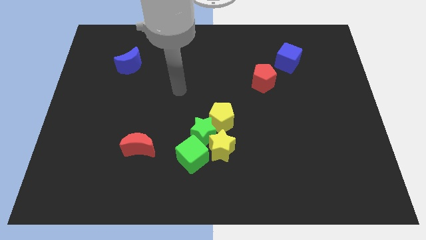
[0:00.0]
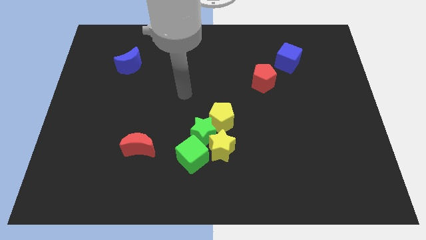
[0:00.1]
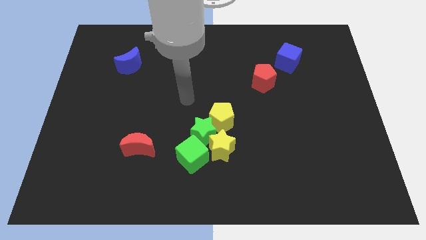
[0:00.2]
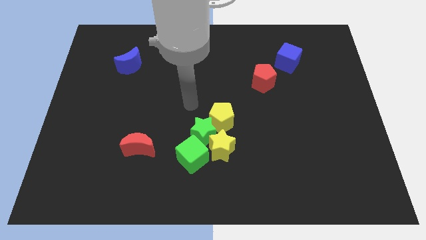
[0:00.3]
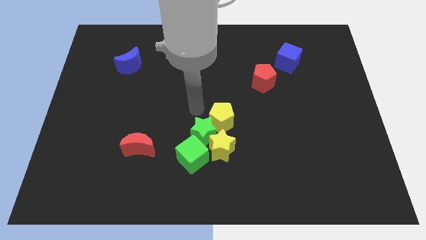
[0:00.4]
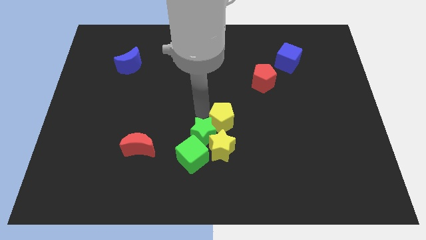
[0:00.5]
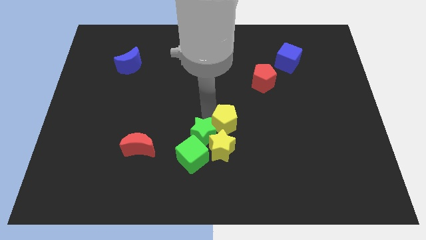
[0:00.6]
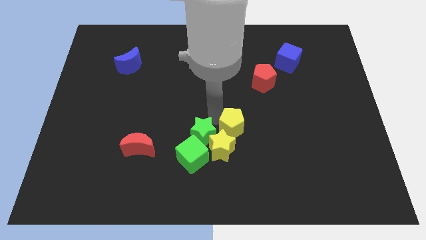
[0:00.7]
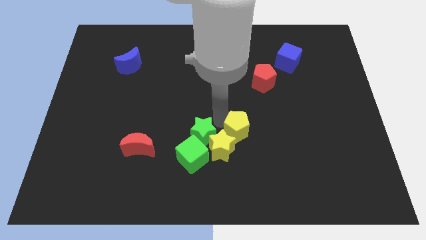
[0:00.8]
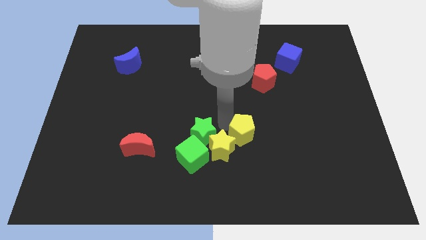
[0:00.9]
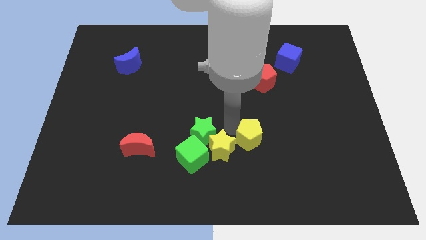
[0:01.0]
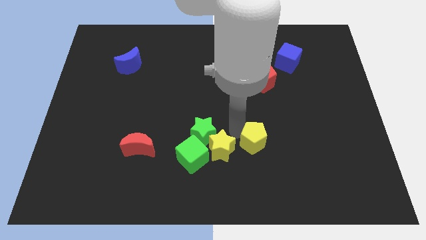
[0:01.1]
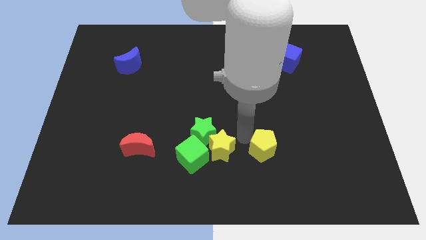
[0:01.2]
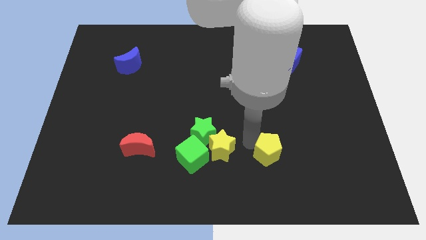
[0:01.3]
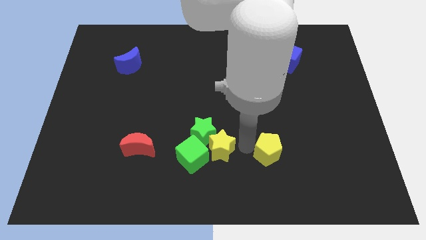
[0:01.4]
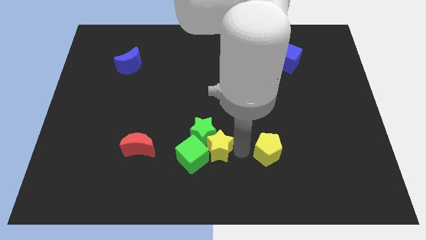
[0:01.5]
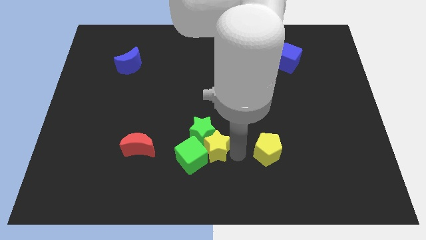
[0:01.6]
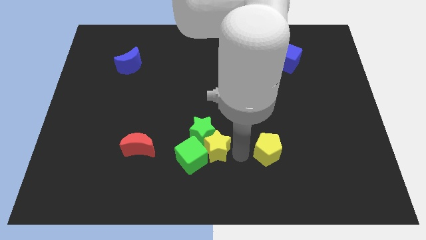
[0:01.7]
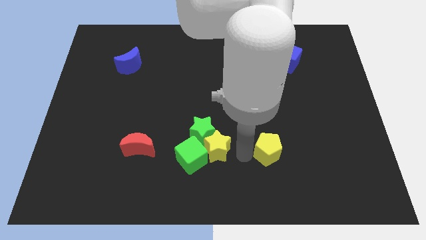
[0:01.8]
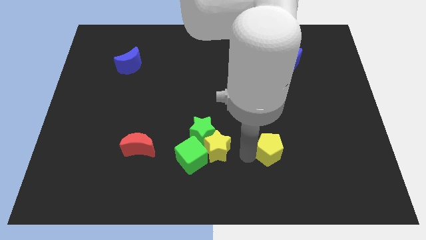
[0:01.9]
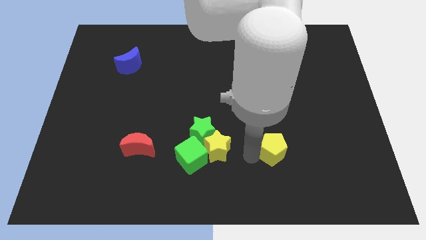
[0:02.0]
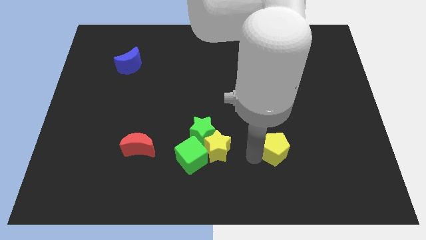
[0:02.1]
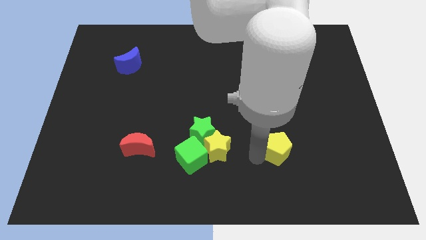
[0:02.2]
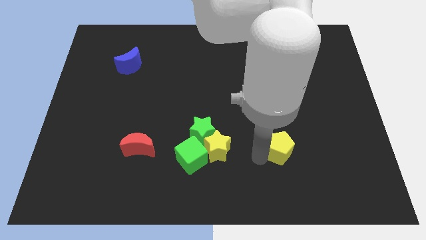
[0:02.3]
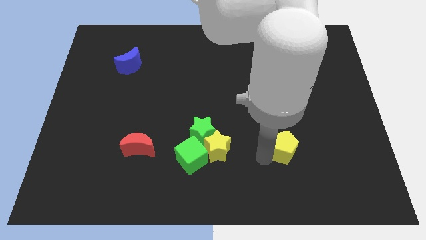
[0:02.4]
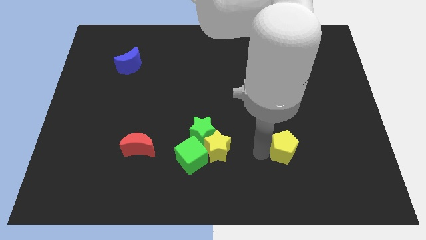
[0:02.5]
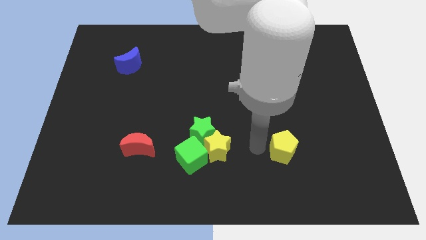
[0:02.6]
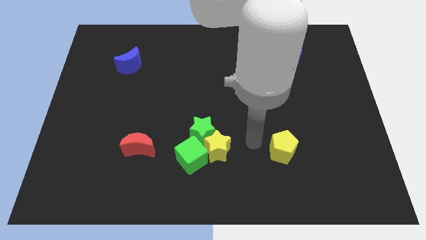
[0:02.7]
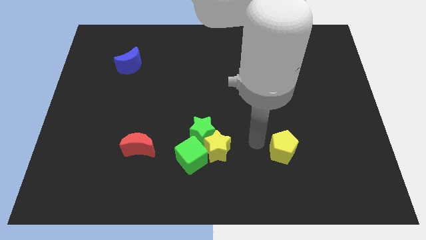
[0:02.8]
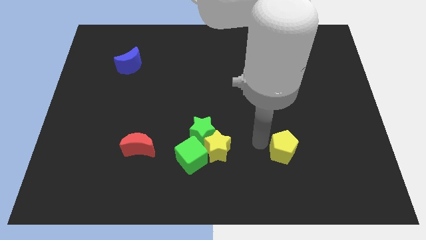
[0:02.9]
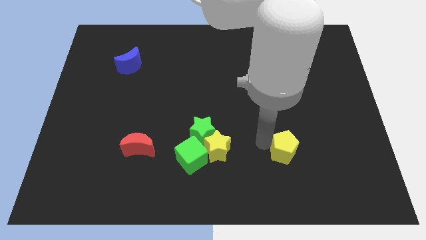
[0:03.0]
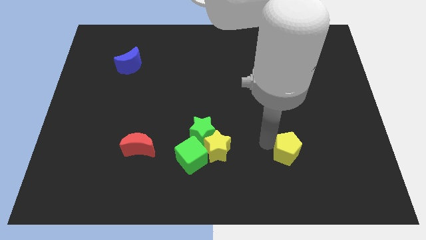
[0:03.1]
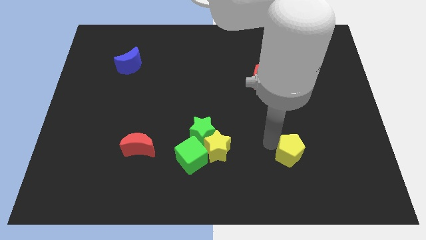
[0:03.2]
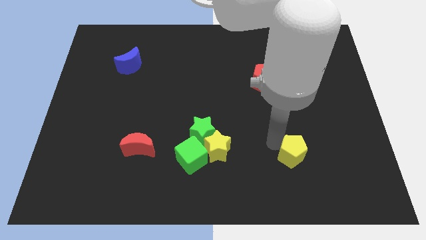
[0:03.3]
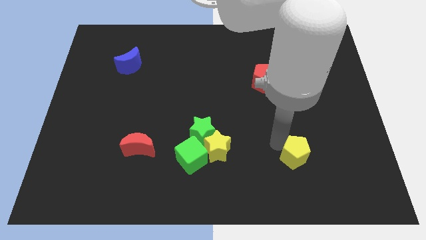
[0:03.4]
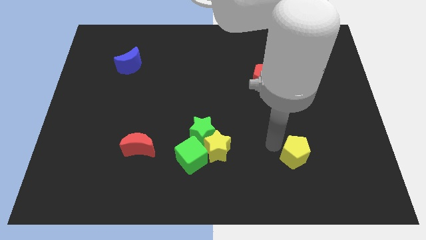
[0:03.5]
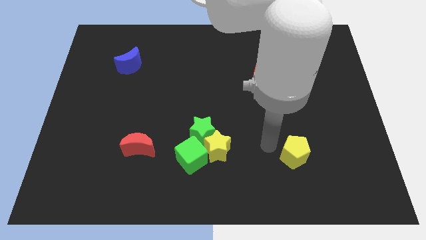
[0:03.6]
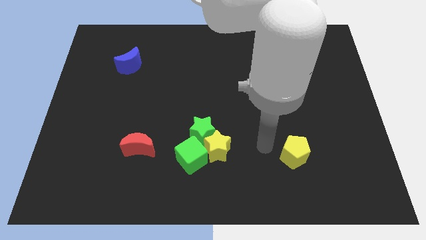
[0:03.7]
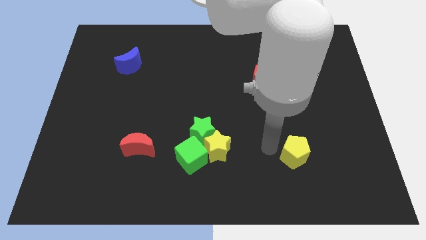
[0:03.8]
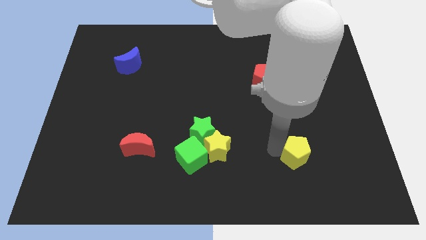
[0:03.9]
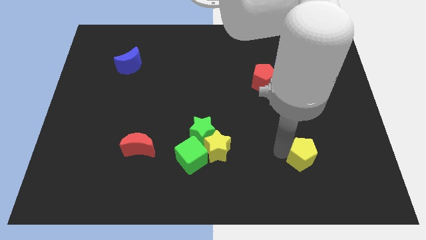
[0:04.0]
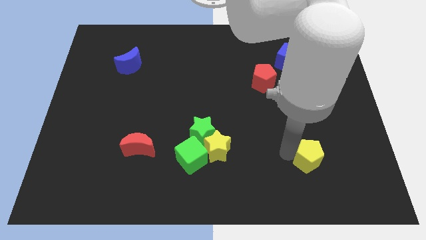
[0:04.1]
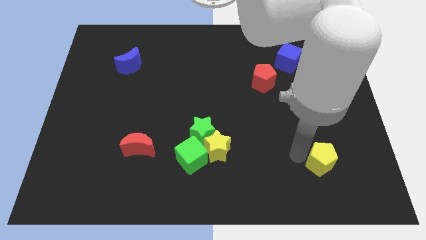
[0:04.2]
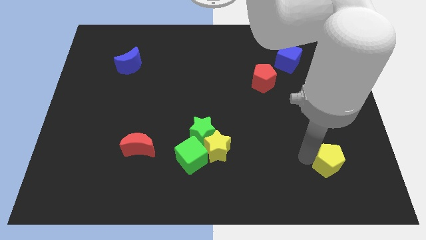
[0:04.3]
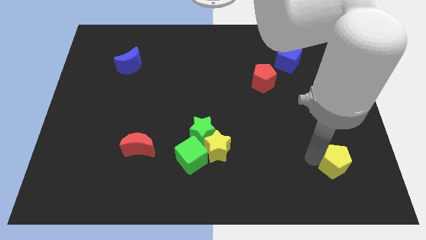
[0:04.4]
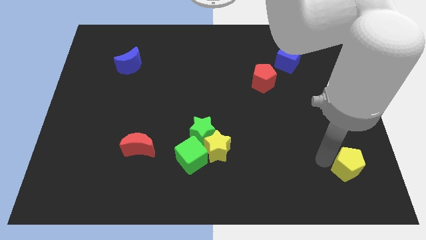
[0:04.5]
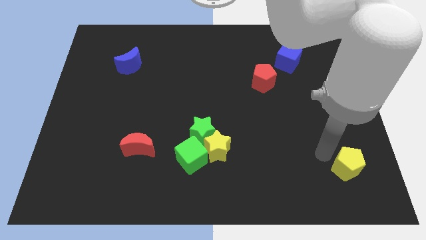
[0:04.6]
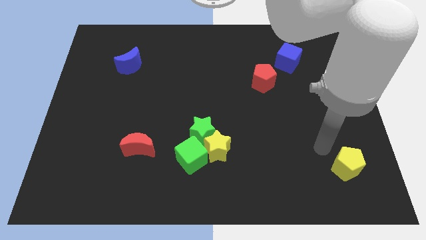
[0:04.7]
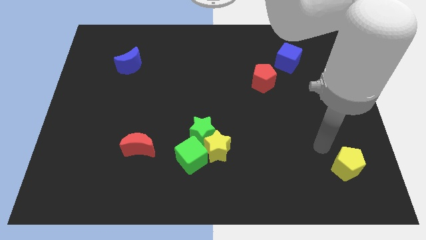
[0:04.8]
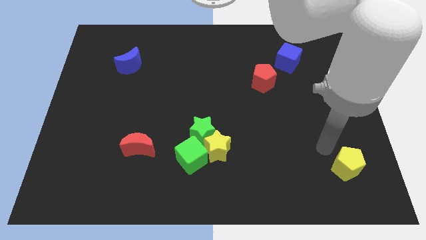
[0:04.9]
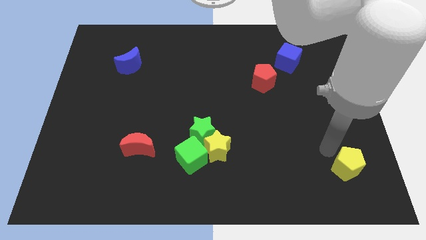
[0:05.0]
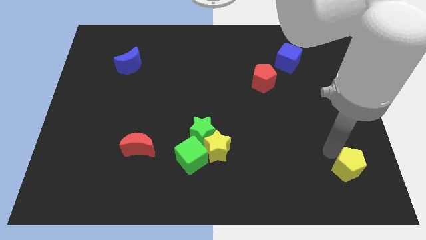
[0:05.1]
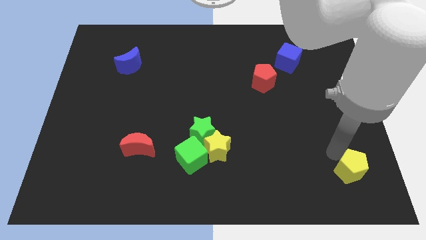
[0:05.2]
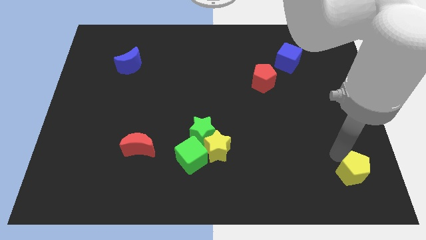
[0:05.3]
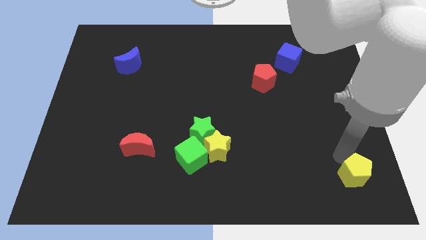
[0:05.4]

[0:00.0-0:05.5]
push the yellow pentagon to the lower right corner

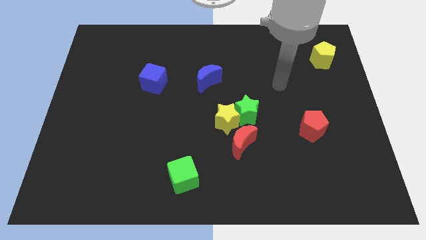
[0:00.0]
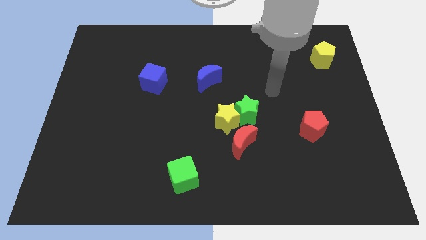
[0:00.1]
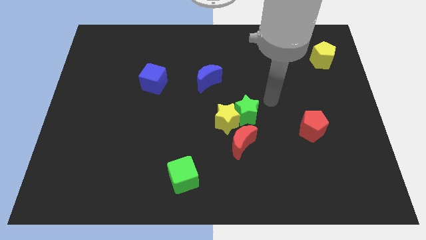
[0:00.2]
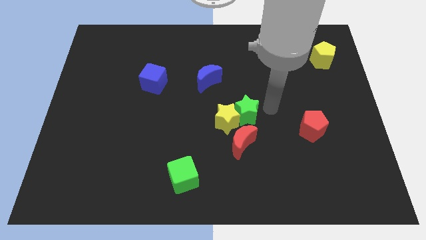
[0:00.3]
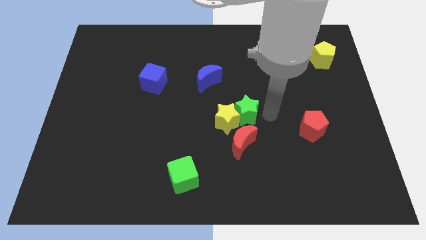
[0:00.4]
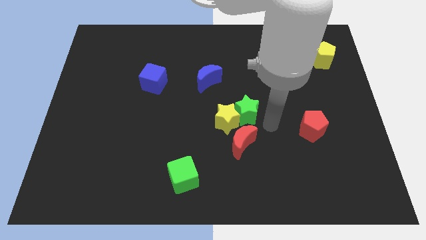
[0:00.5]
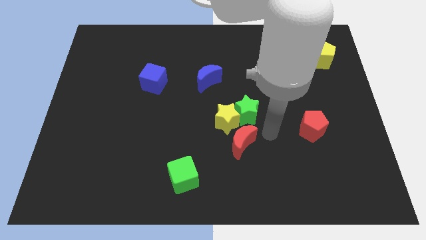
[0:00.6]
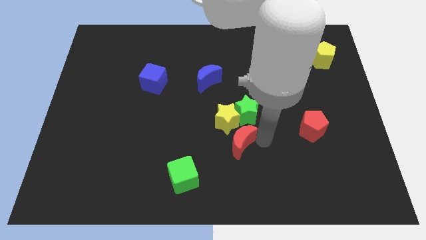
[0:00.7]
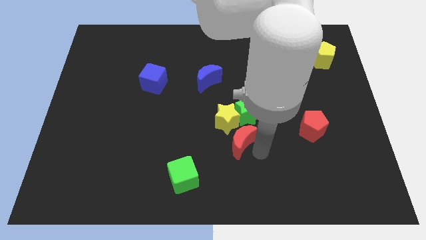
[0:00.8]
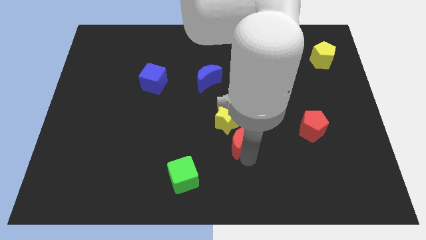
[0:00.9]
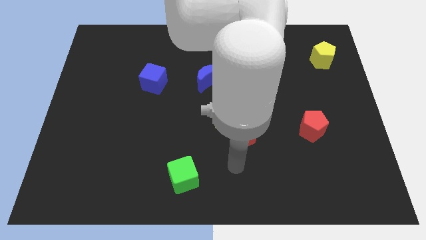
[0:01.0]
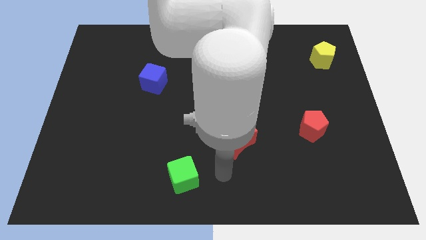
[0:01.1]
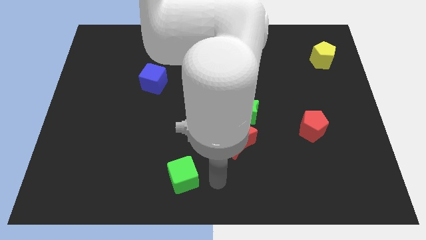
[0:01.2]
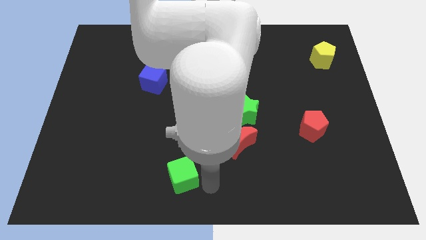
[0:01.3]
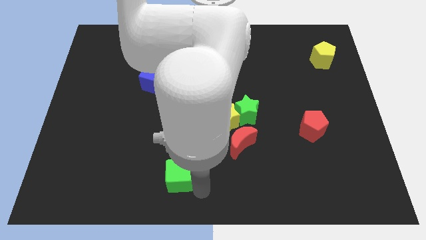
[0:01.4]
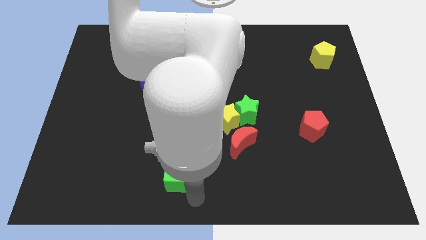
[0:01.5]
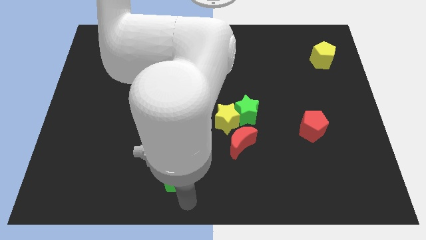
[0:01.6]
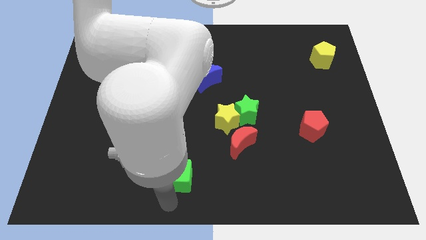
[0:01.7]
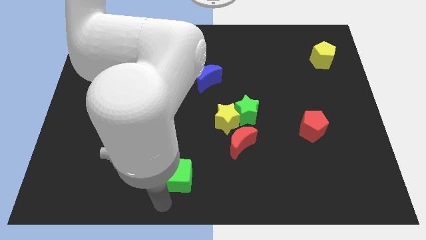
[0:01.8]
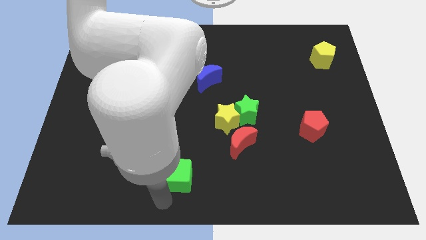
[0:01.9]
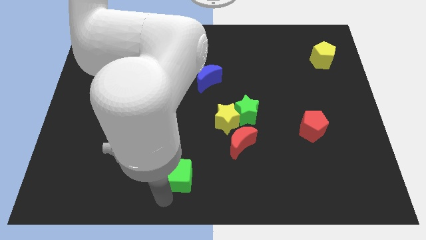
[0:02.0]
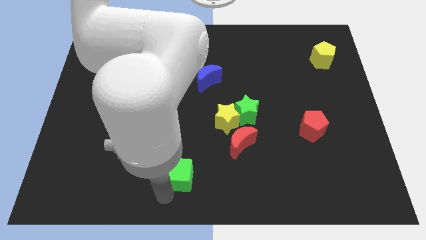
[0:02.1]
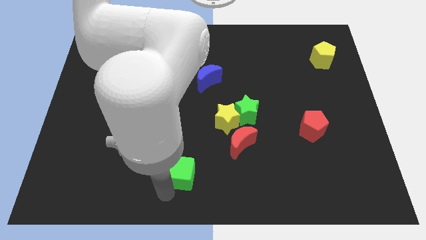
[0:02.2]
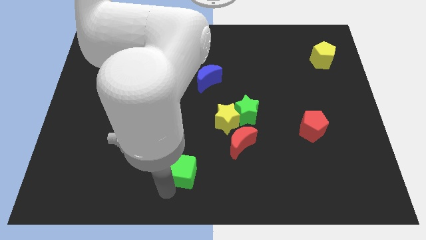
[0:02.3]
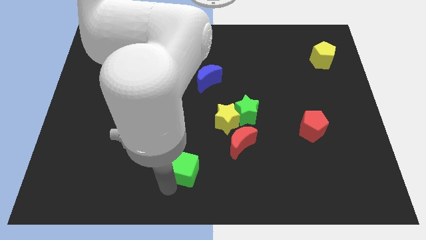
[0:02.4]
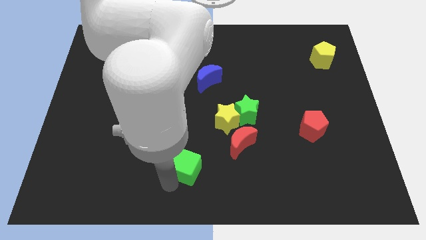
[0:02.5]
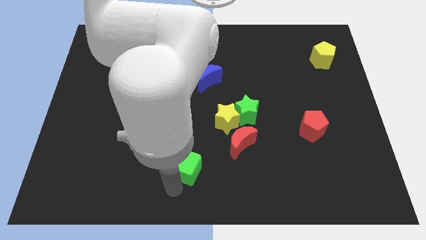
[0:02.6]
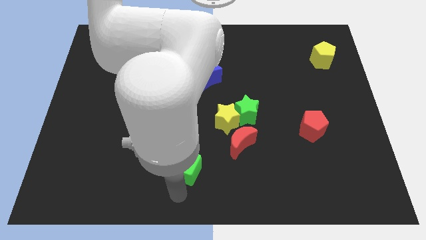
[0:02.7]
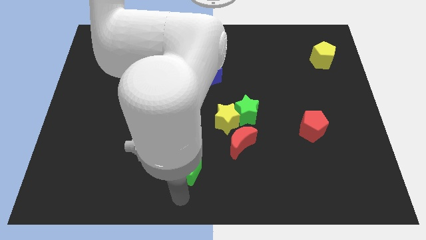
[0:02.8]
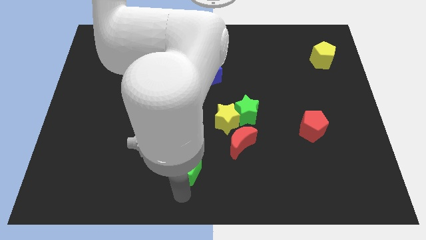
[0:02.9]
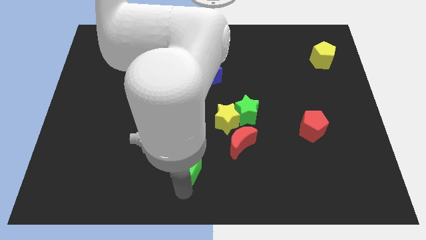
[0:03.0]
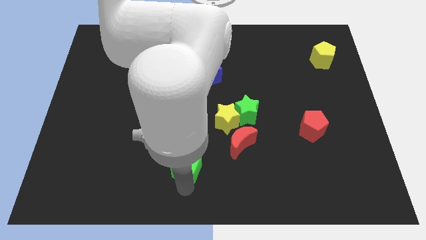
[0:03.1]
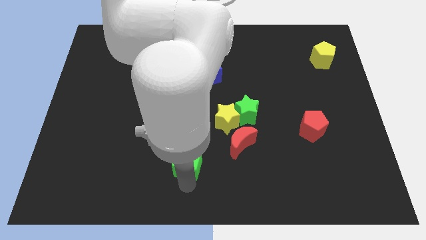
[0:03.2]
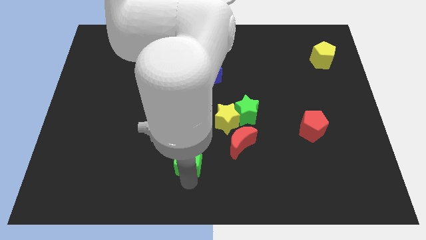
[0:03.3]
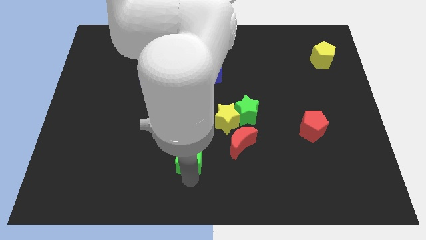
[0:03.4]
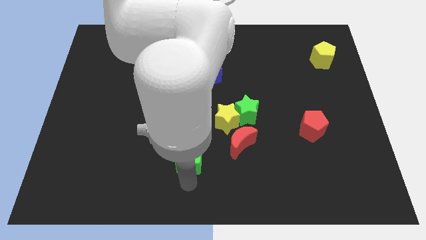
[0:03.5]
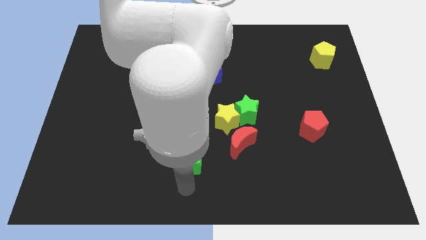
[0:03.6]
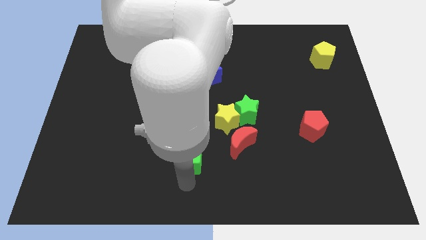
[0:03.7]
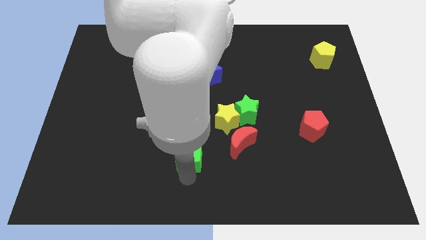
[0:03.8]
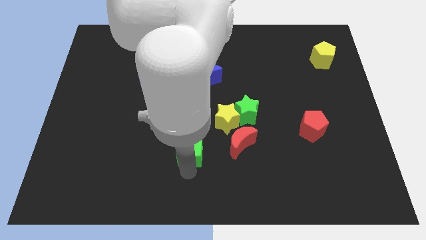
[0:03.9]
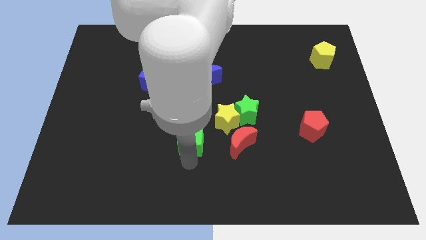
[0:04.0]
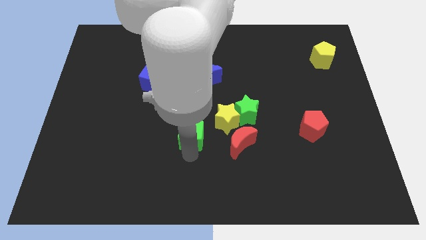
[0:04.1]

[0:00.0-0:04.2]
move the green cube to the center
